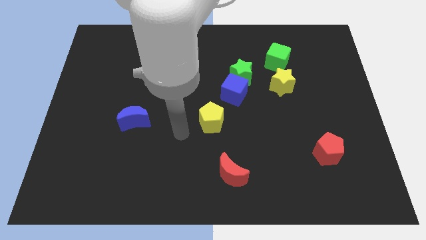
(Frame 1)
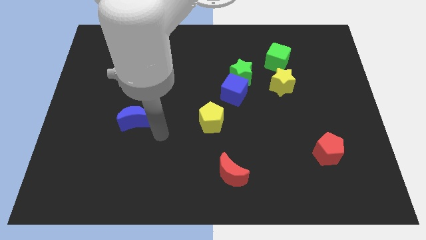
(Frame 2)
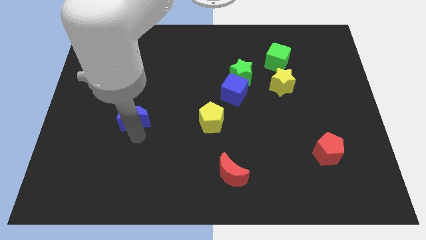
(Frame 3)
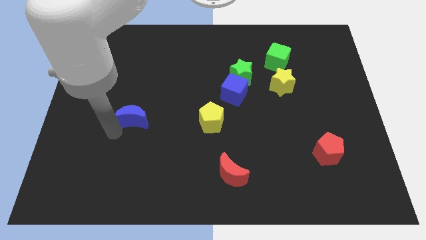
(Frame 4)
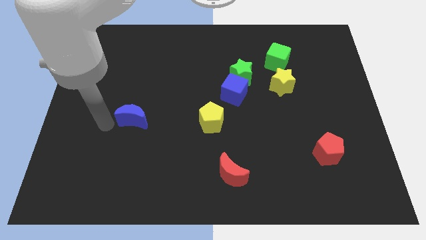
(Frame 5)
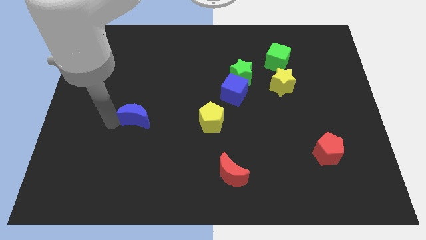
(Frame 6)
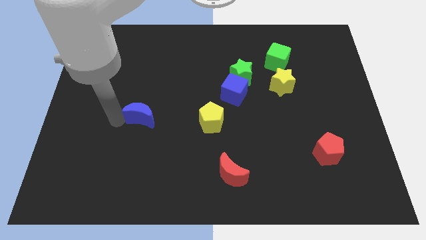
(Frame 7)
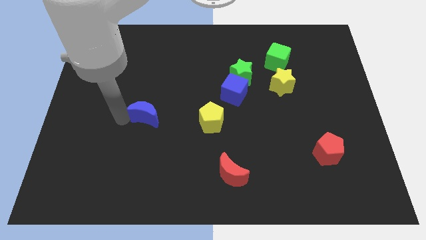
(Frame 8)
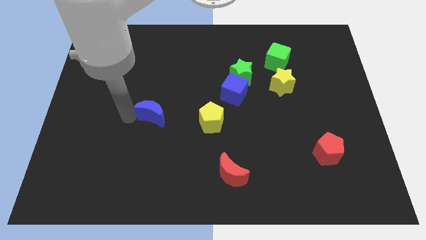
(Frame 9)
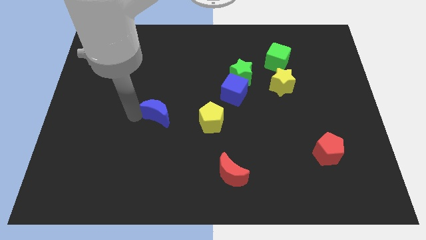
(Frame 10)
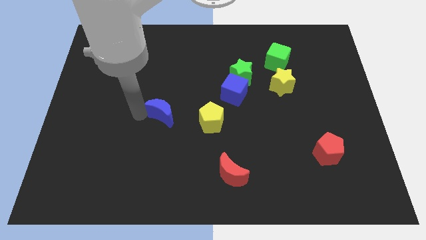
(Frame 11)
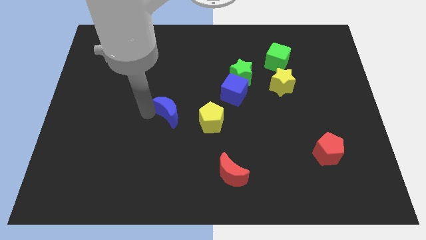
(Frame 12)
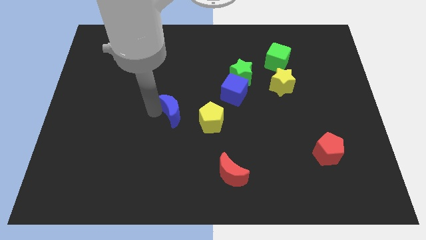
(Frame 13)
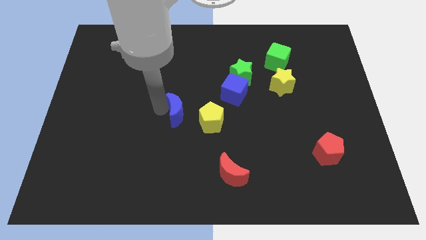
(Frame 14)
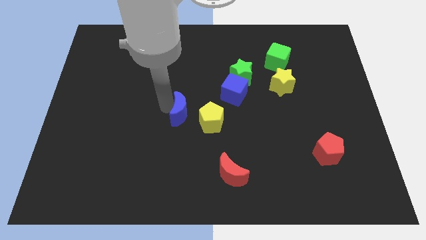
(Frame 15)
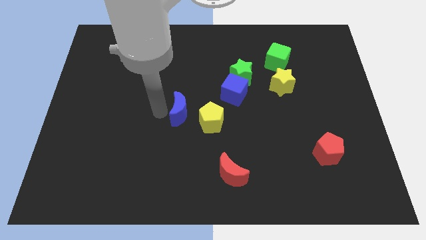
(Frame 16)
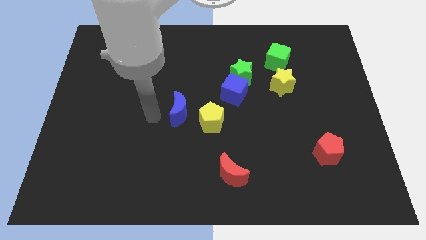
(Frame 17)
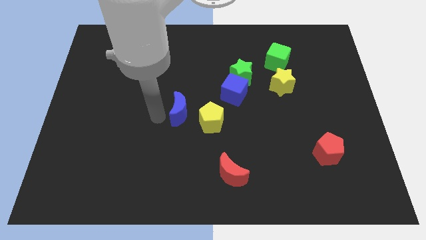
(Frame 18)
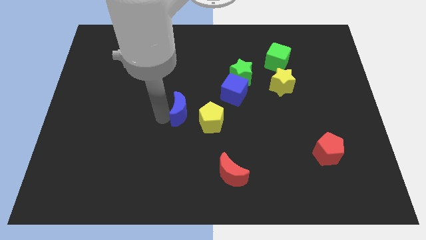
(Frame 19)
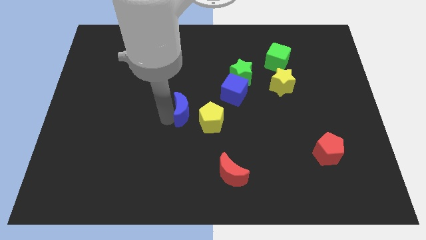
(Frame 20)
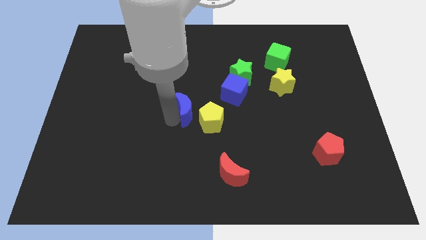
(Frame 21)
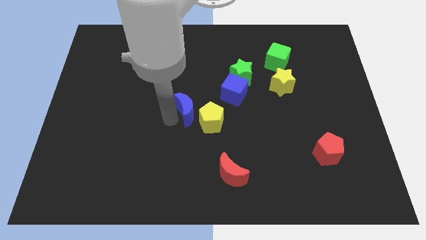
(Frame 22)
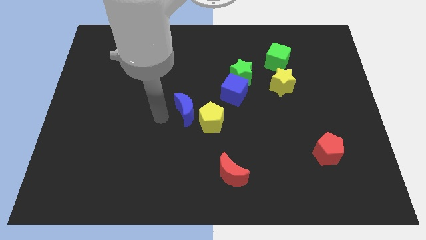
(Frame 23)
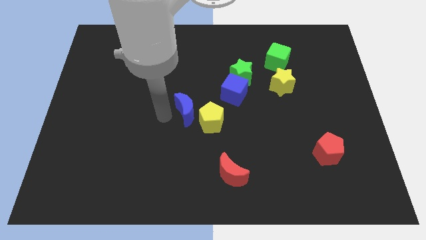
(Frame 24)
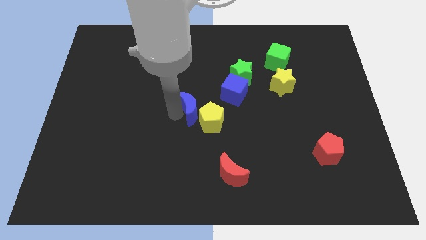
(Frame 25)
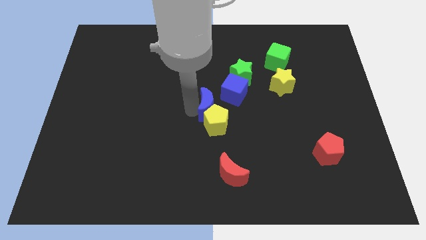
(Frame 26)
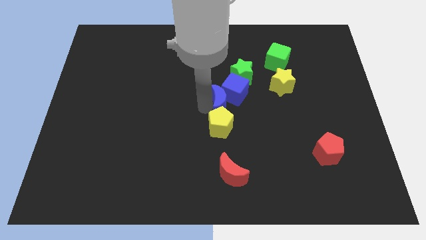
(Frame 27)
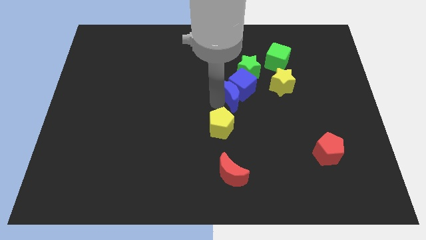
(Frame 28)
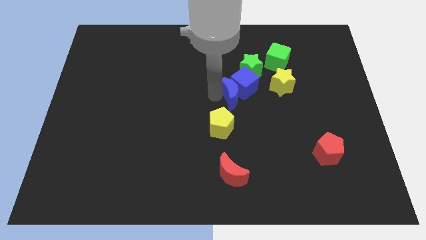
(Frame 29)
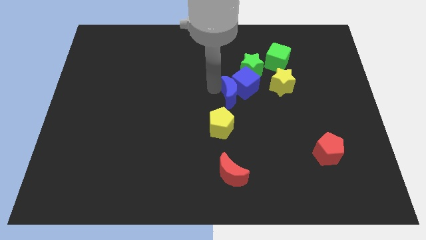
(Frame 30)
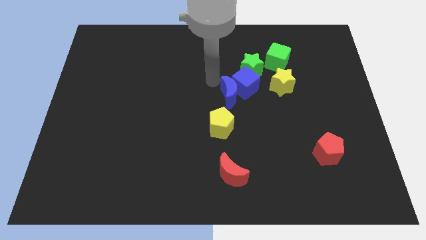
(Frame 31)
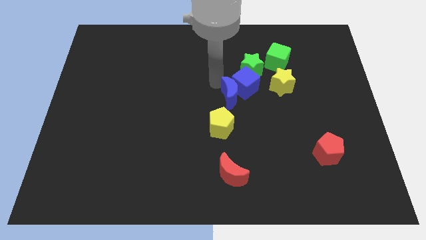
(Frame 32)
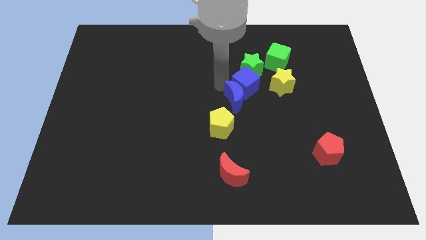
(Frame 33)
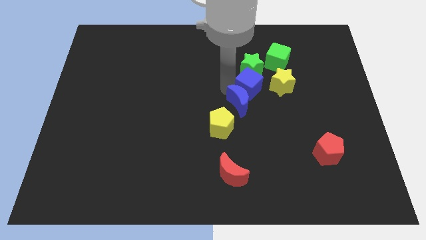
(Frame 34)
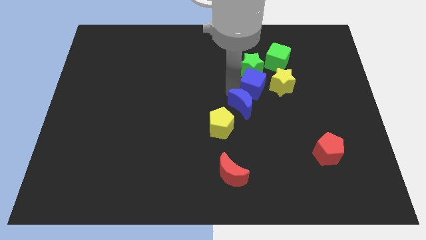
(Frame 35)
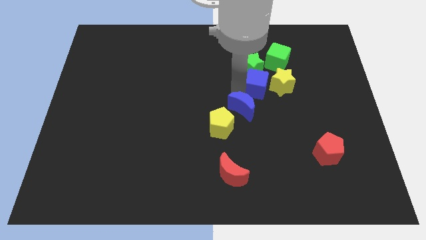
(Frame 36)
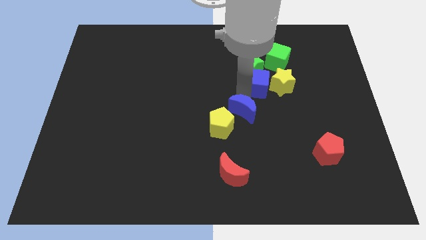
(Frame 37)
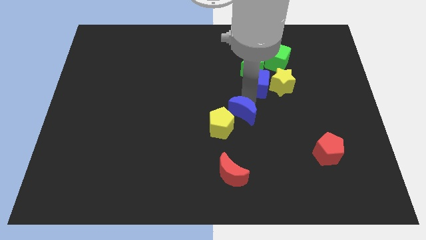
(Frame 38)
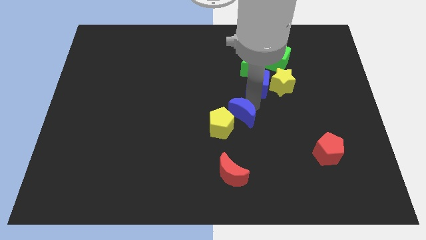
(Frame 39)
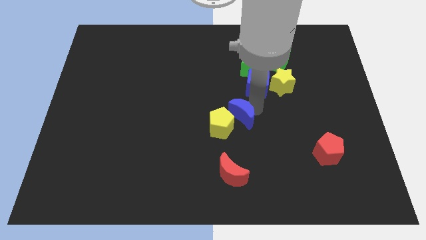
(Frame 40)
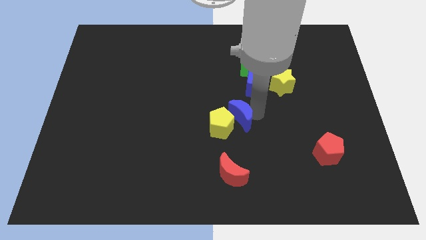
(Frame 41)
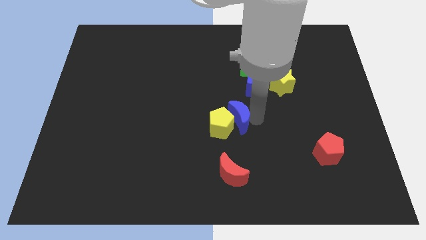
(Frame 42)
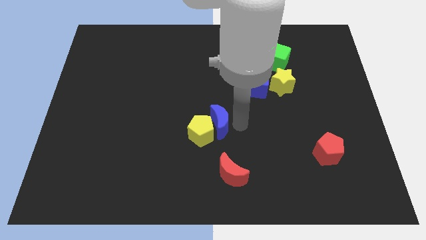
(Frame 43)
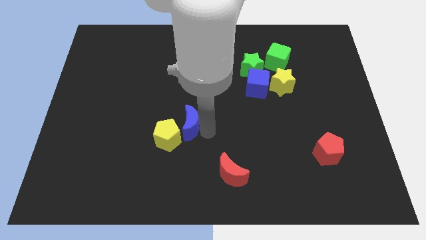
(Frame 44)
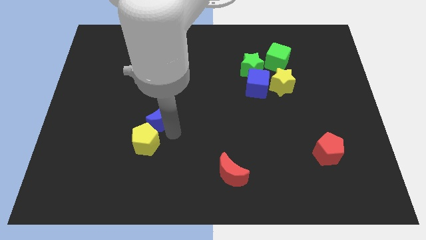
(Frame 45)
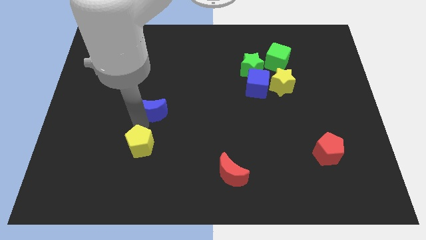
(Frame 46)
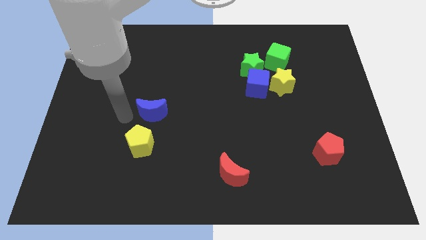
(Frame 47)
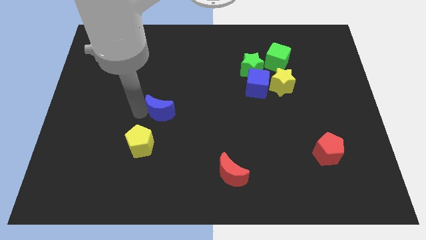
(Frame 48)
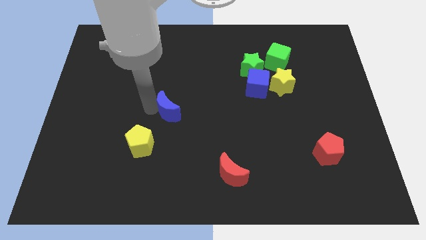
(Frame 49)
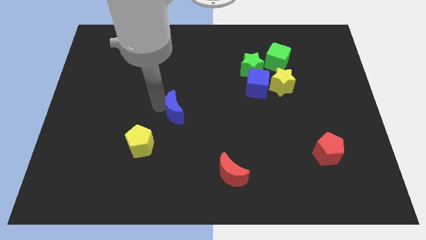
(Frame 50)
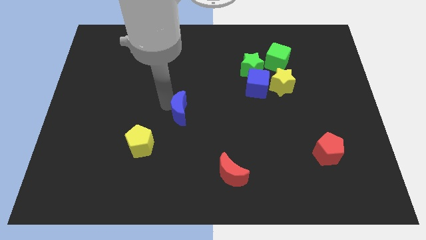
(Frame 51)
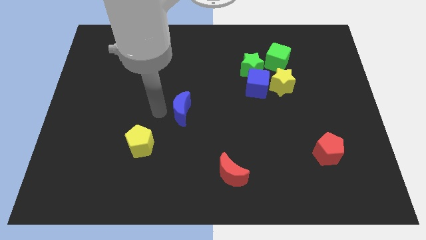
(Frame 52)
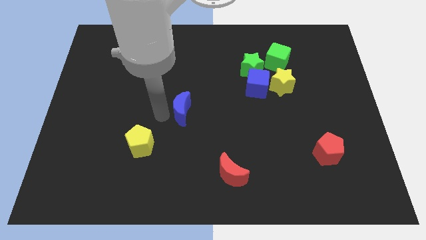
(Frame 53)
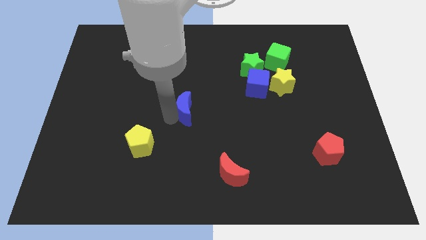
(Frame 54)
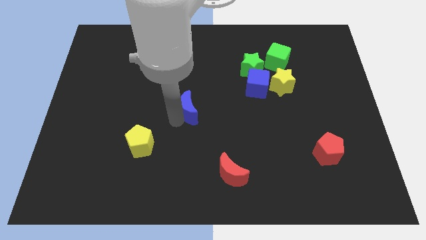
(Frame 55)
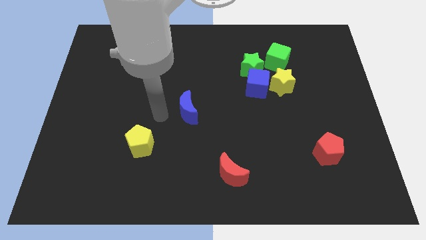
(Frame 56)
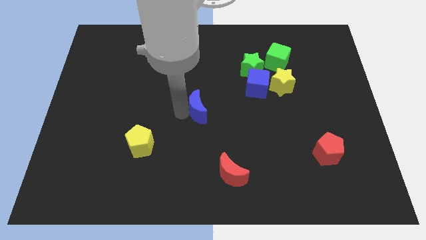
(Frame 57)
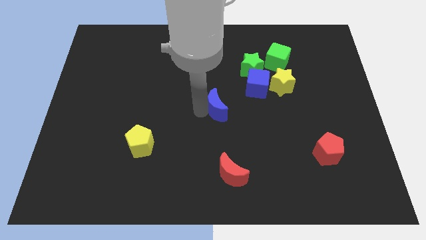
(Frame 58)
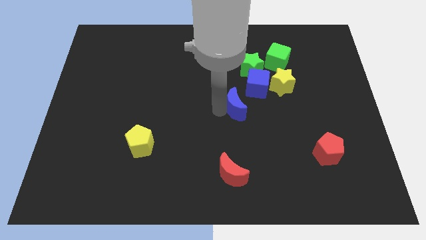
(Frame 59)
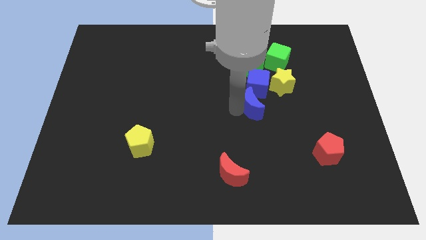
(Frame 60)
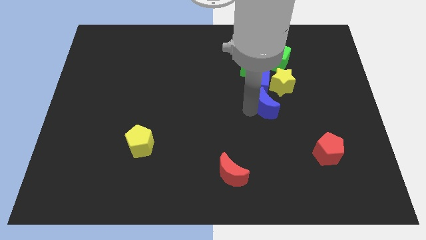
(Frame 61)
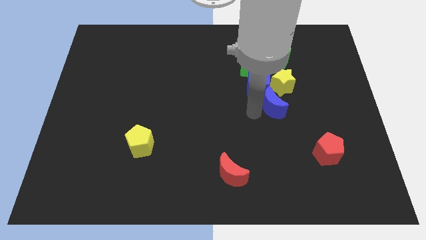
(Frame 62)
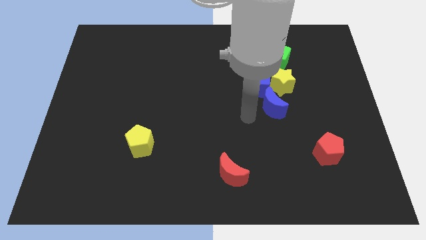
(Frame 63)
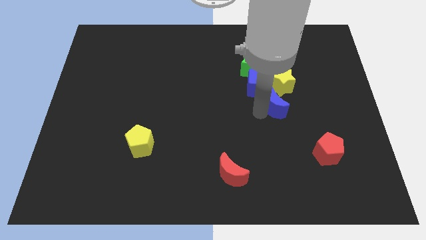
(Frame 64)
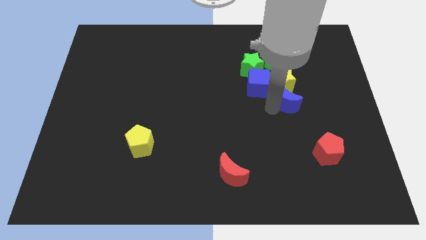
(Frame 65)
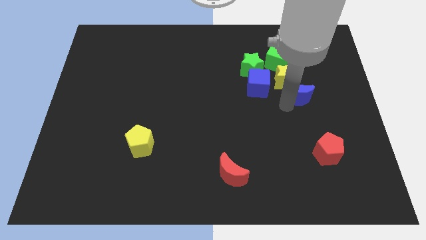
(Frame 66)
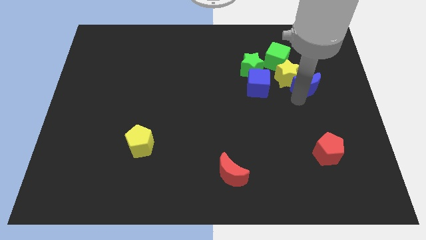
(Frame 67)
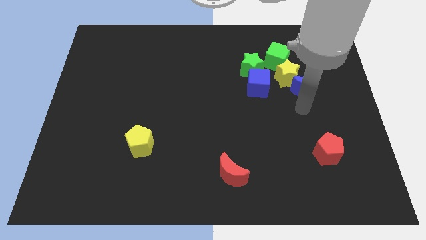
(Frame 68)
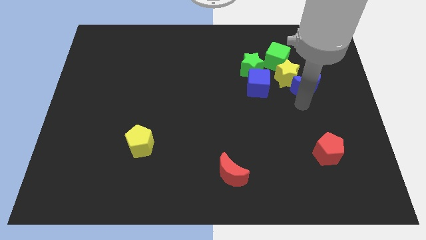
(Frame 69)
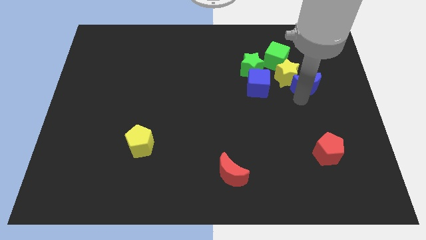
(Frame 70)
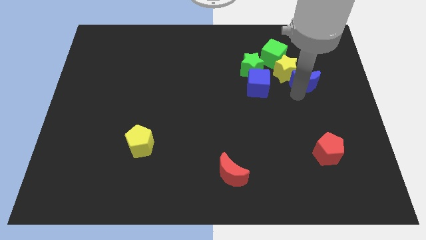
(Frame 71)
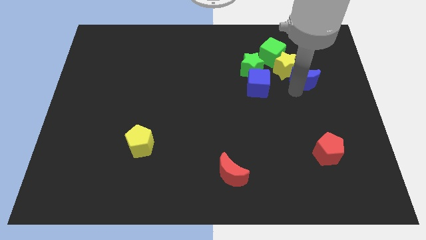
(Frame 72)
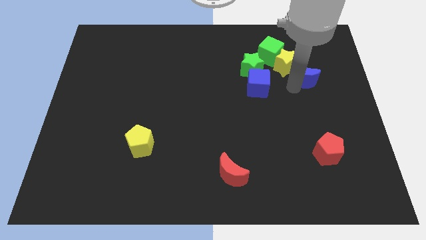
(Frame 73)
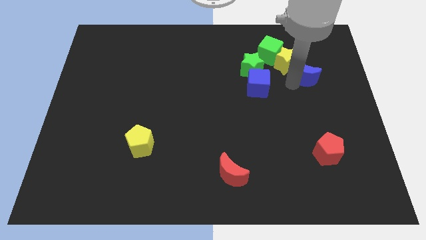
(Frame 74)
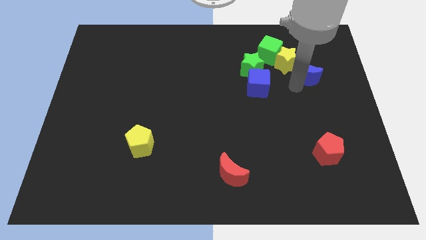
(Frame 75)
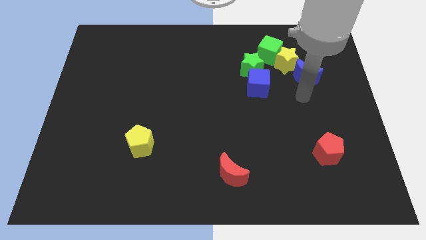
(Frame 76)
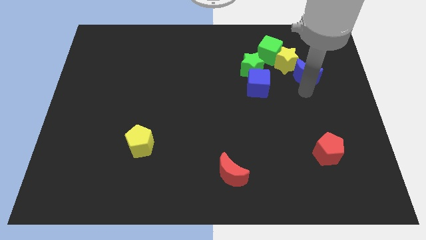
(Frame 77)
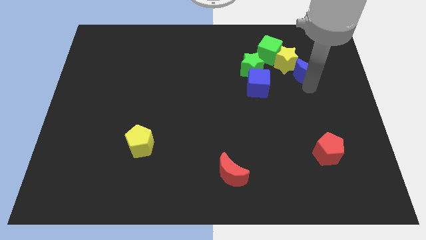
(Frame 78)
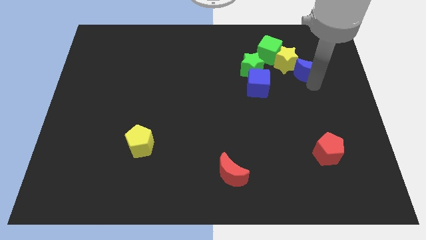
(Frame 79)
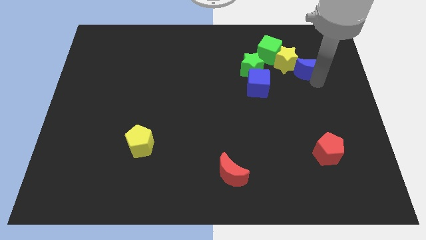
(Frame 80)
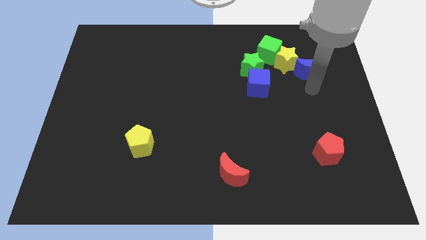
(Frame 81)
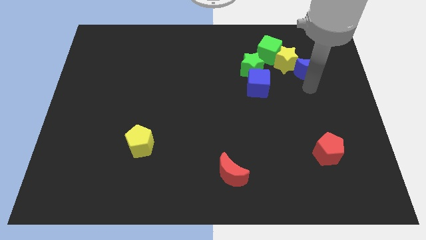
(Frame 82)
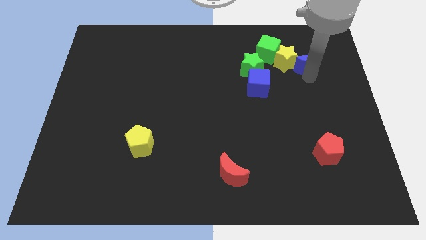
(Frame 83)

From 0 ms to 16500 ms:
move the blue moon right of the green cube
